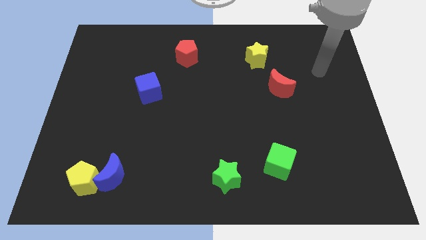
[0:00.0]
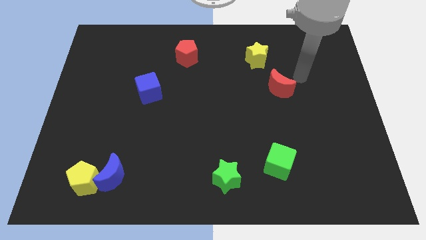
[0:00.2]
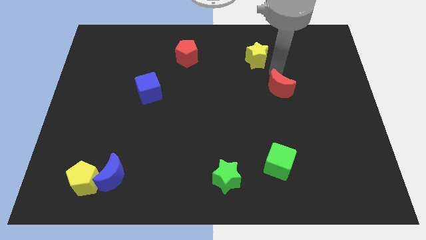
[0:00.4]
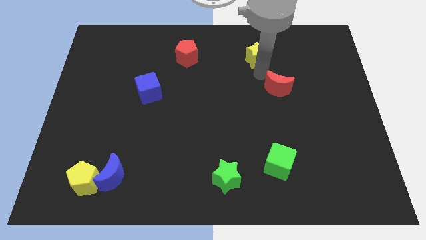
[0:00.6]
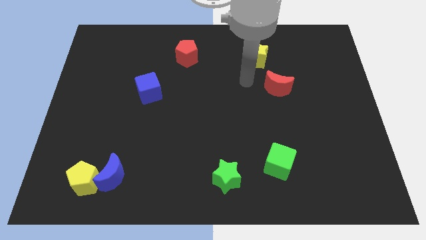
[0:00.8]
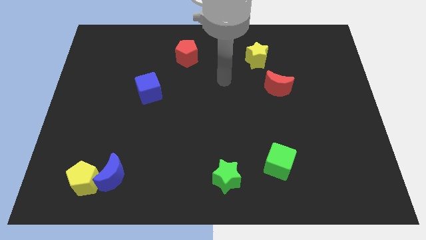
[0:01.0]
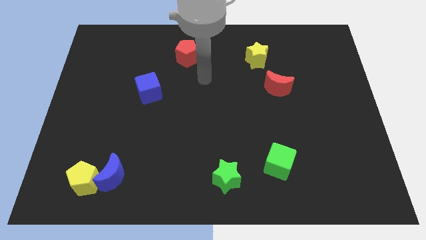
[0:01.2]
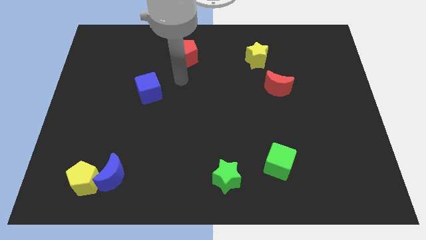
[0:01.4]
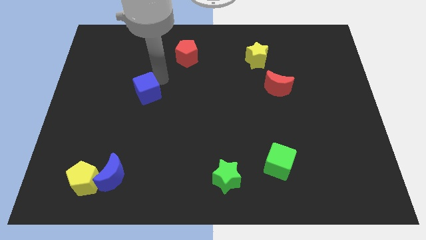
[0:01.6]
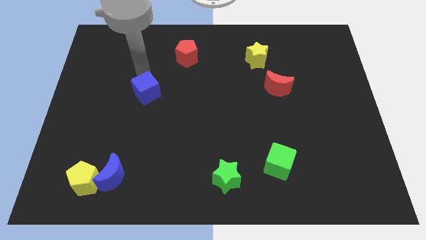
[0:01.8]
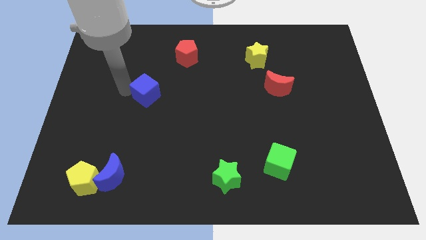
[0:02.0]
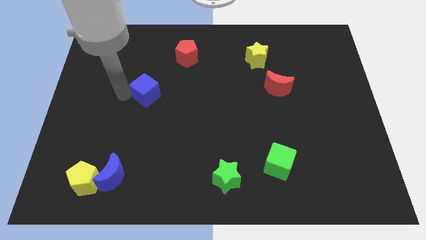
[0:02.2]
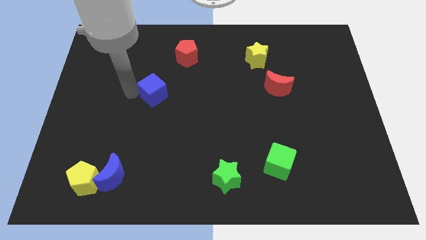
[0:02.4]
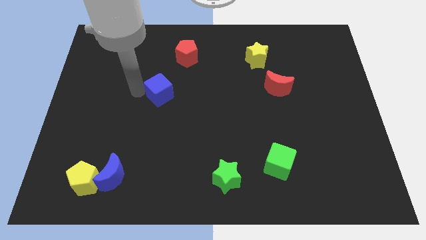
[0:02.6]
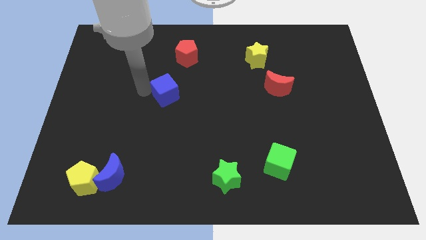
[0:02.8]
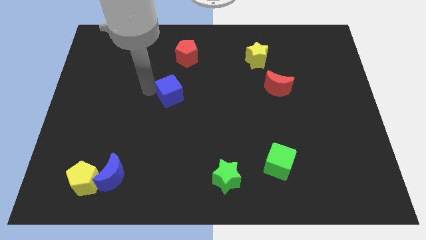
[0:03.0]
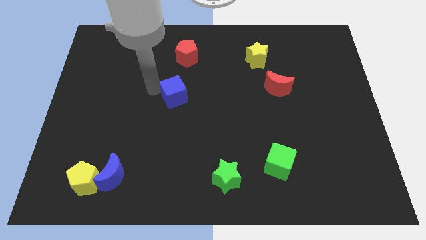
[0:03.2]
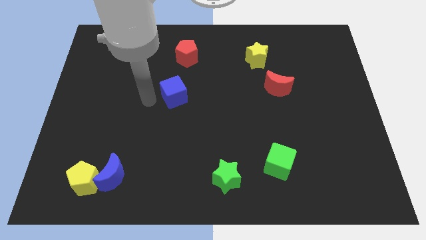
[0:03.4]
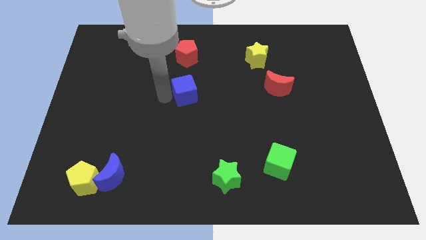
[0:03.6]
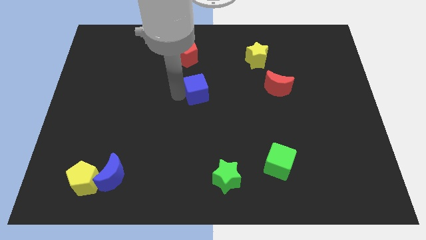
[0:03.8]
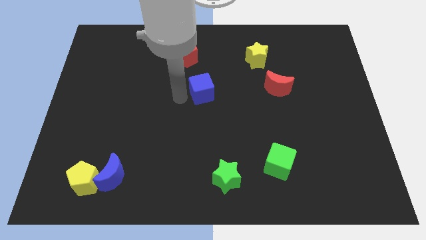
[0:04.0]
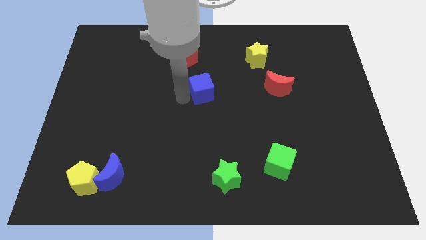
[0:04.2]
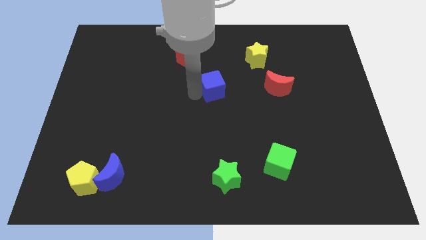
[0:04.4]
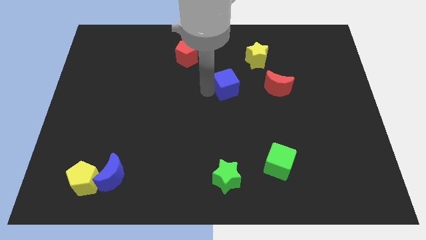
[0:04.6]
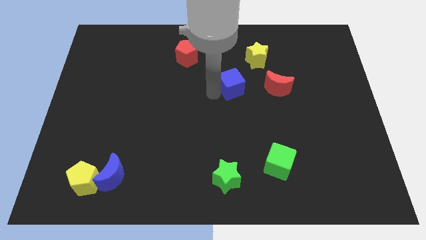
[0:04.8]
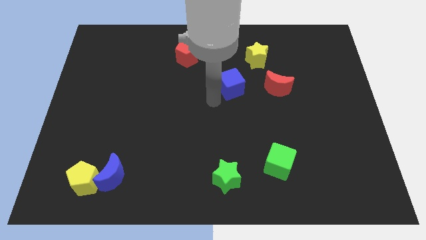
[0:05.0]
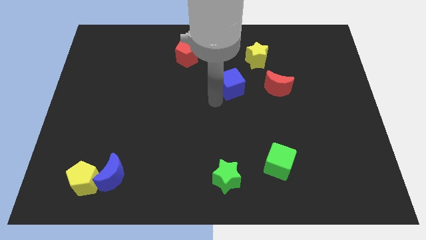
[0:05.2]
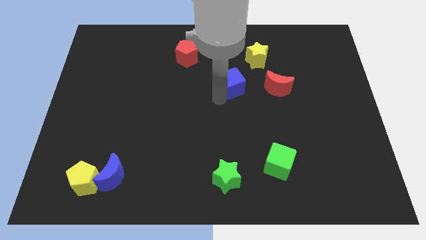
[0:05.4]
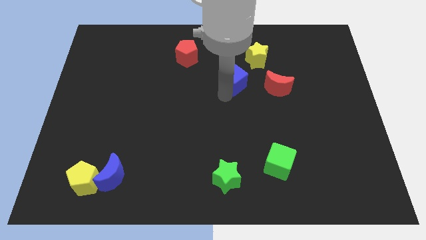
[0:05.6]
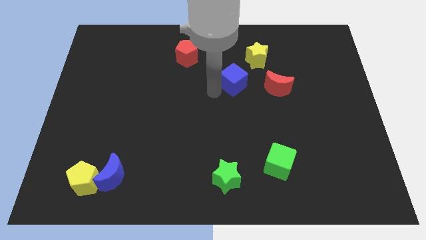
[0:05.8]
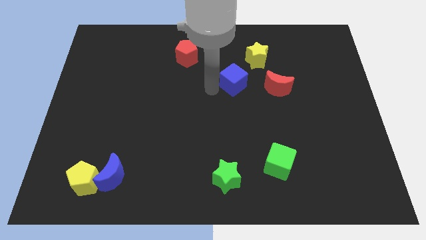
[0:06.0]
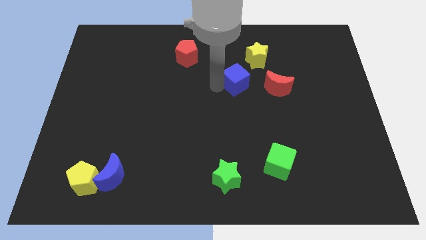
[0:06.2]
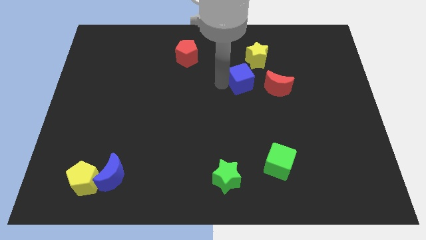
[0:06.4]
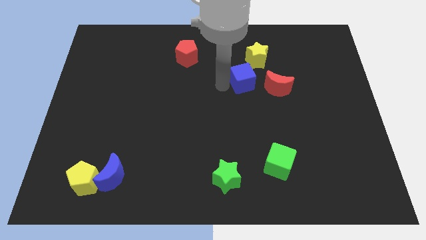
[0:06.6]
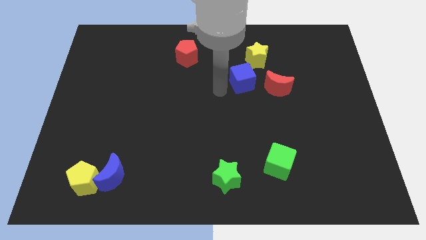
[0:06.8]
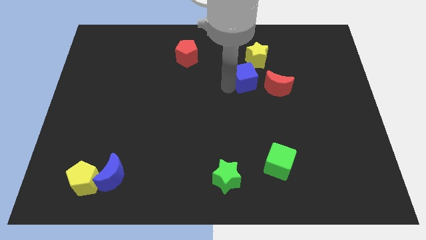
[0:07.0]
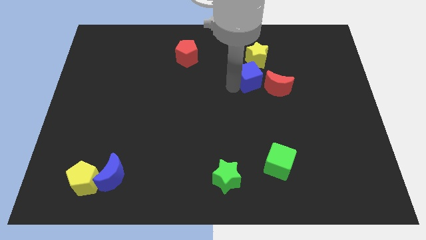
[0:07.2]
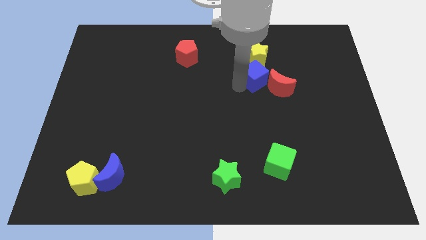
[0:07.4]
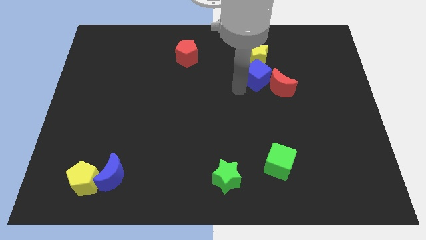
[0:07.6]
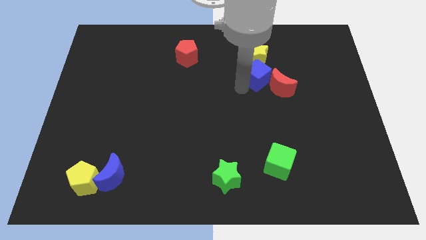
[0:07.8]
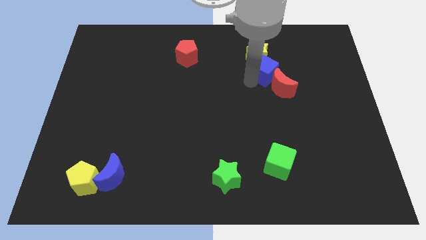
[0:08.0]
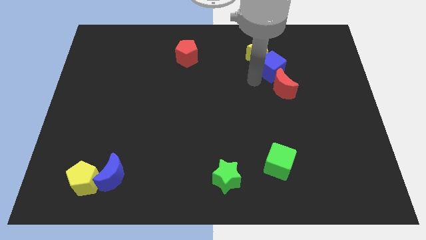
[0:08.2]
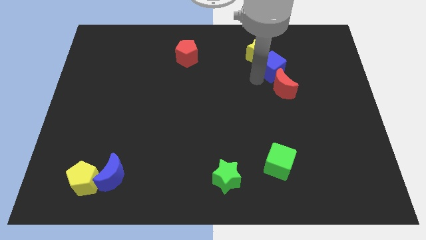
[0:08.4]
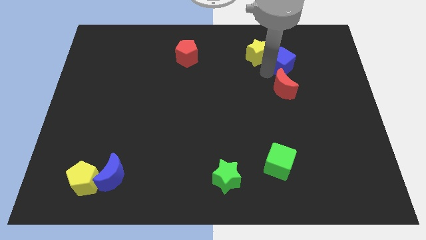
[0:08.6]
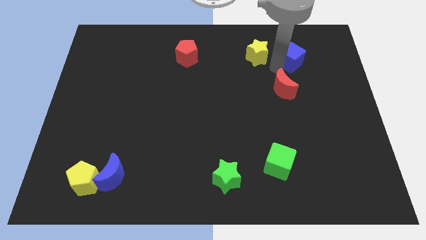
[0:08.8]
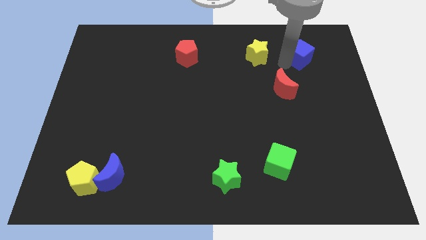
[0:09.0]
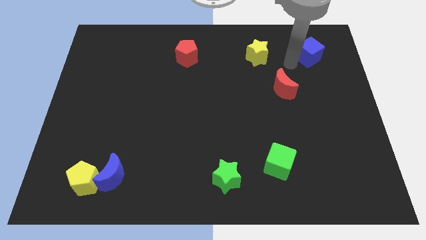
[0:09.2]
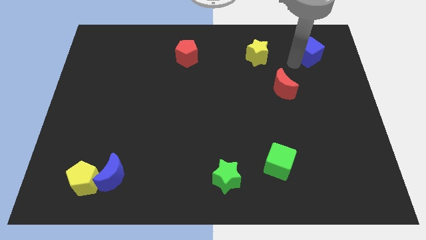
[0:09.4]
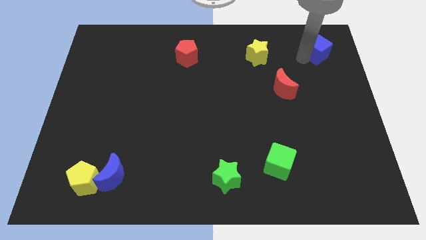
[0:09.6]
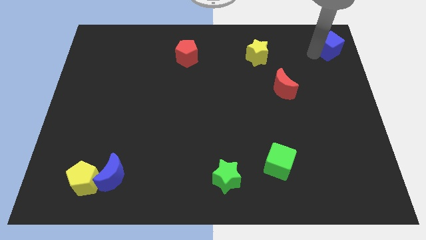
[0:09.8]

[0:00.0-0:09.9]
put the blue cube to the top right

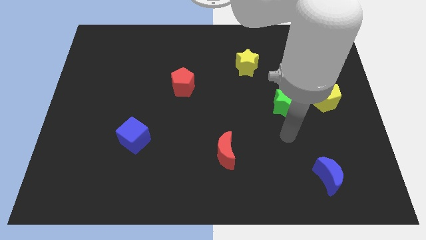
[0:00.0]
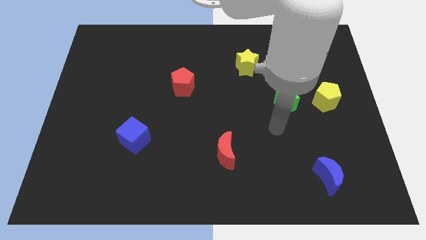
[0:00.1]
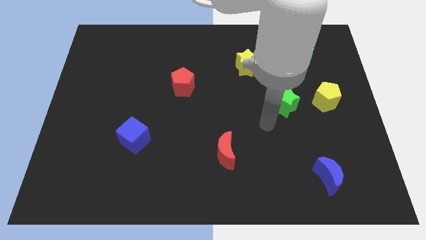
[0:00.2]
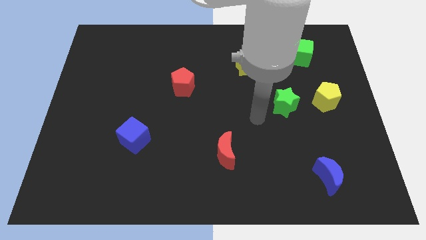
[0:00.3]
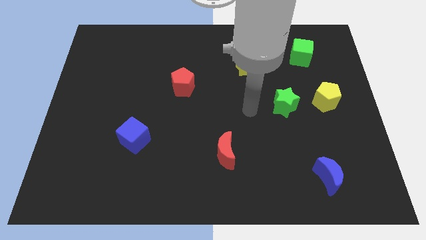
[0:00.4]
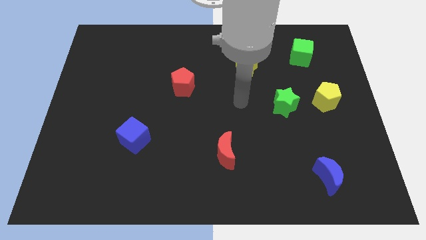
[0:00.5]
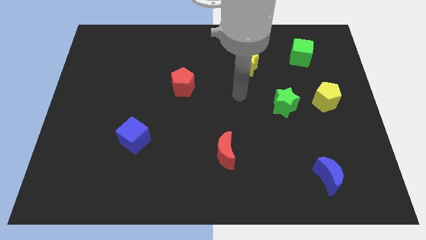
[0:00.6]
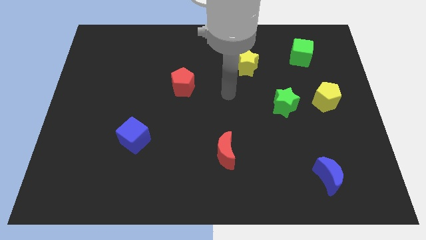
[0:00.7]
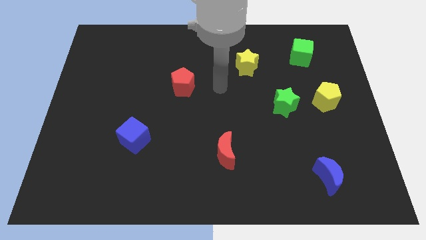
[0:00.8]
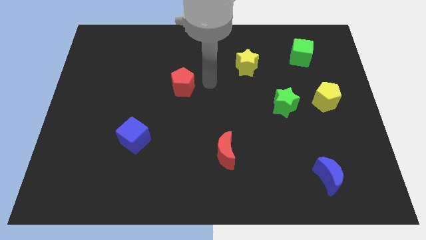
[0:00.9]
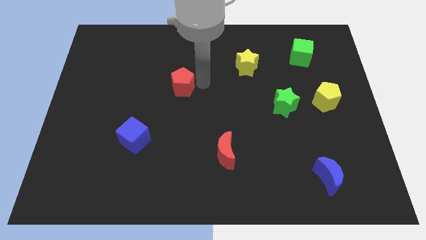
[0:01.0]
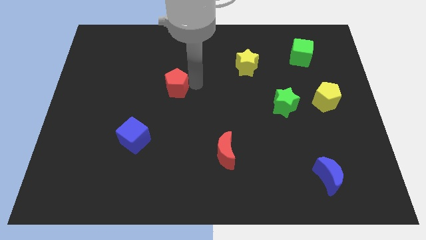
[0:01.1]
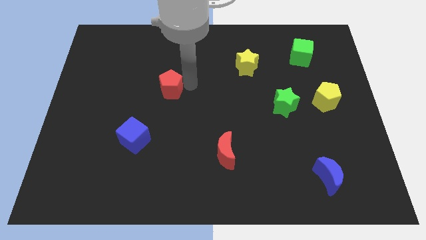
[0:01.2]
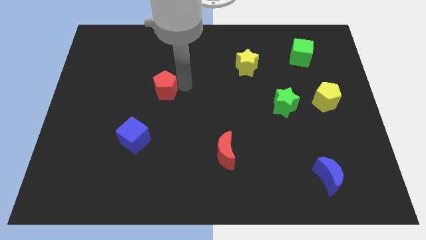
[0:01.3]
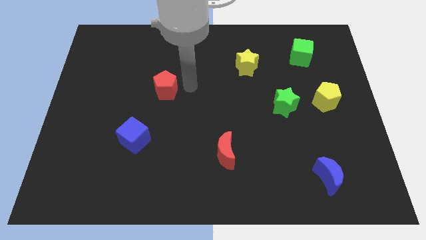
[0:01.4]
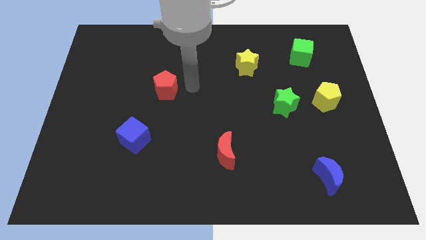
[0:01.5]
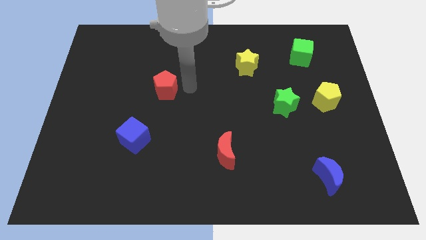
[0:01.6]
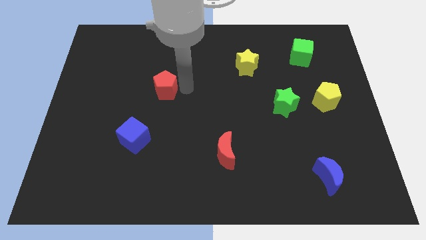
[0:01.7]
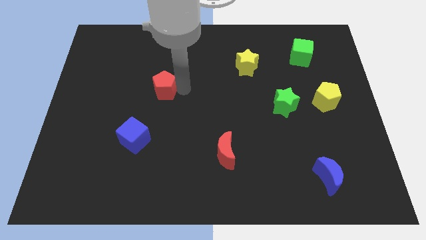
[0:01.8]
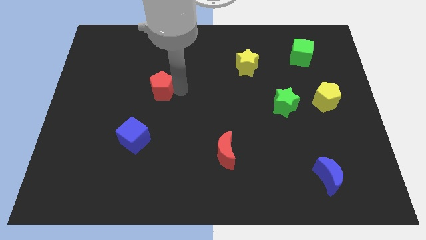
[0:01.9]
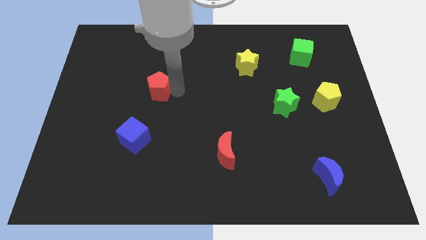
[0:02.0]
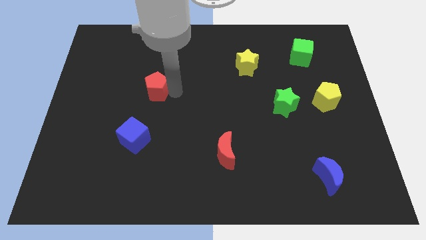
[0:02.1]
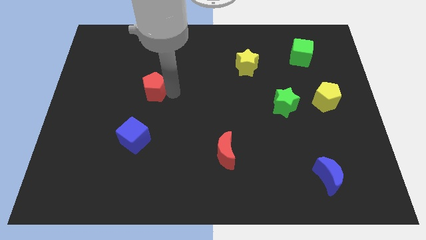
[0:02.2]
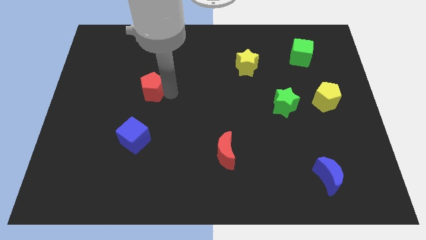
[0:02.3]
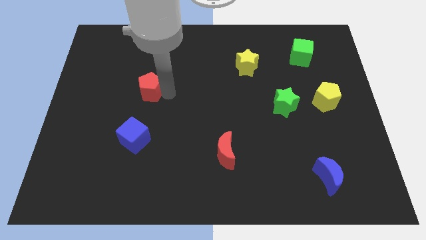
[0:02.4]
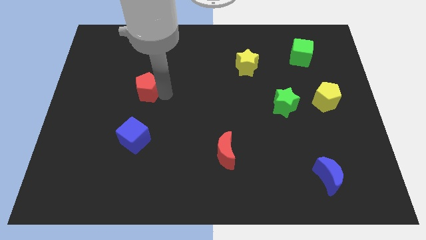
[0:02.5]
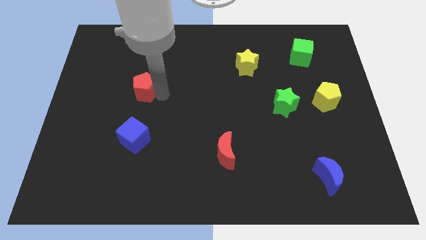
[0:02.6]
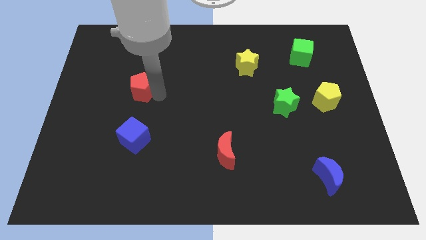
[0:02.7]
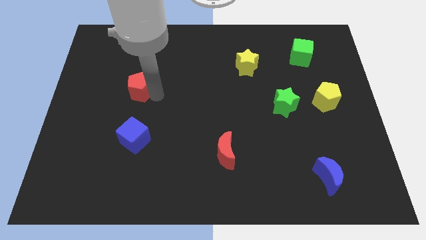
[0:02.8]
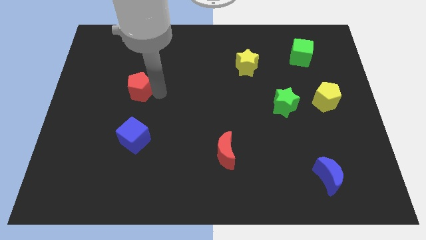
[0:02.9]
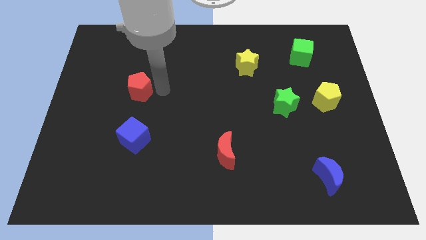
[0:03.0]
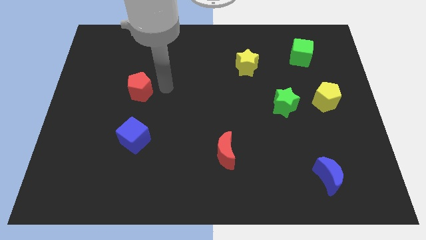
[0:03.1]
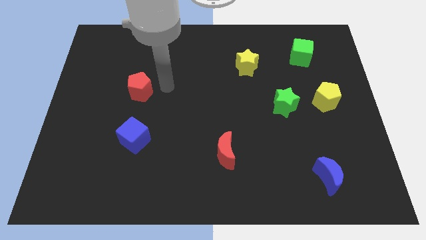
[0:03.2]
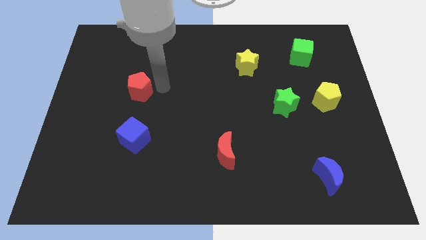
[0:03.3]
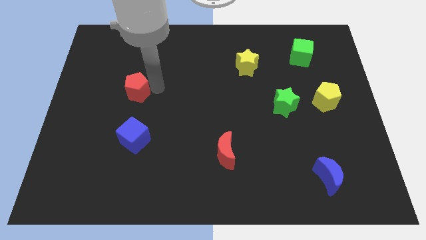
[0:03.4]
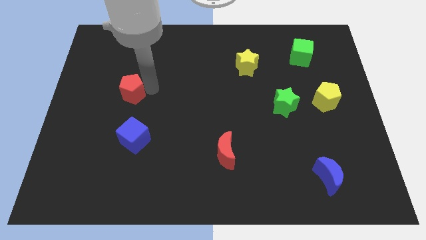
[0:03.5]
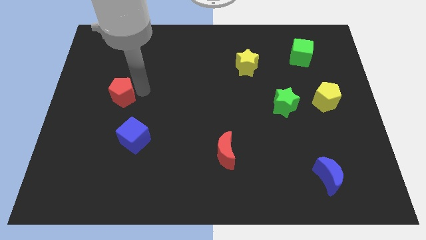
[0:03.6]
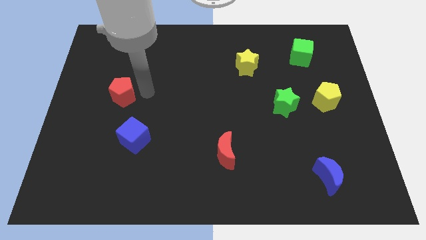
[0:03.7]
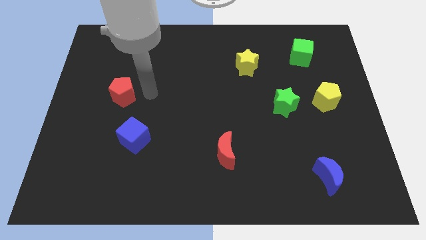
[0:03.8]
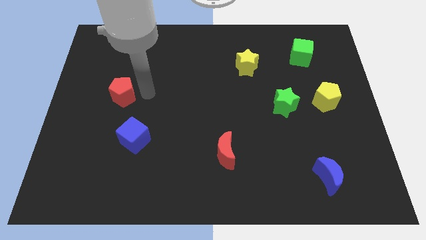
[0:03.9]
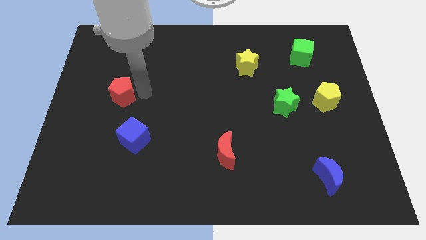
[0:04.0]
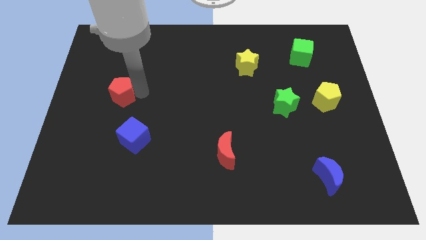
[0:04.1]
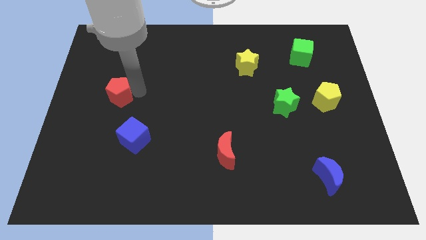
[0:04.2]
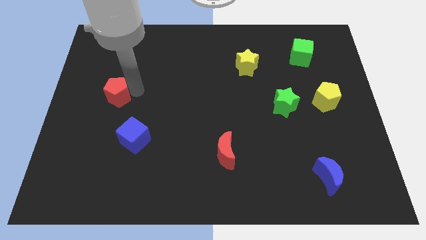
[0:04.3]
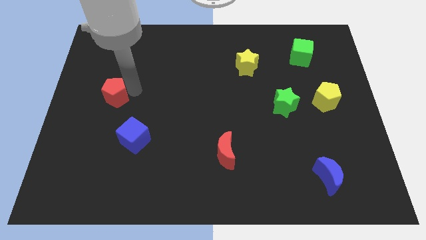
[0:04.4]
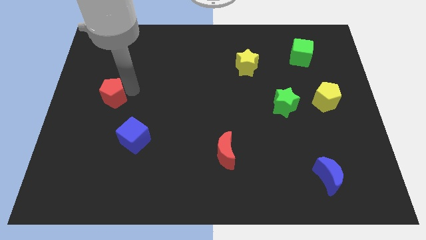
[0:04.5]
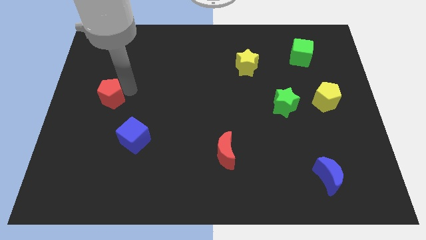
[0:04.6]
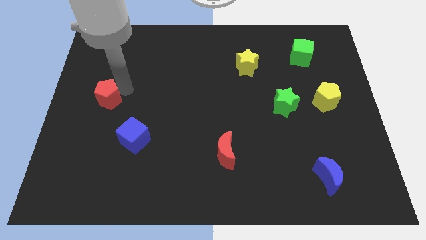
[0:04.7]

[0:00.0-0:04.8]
push the red pentagon to the center left
